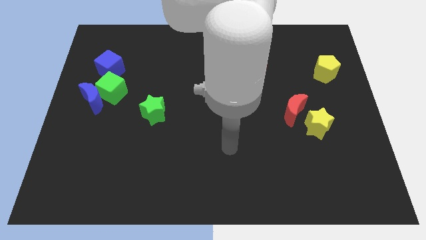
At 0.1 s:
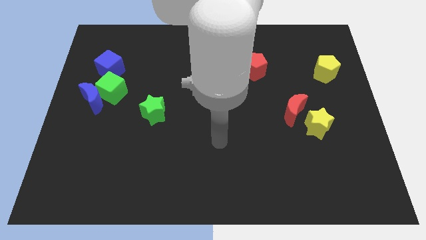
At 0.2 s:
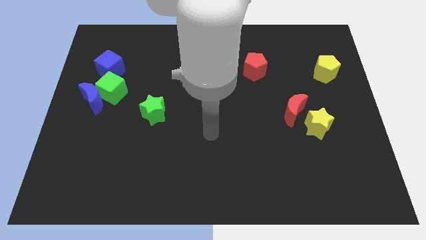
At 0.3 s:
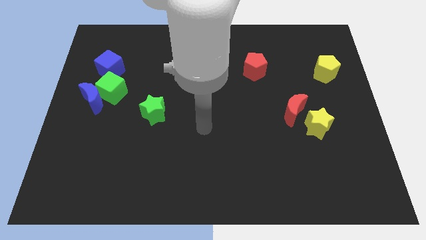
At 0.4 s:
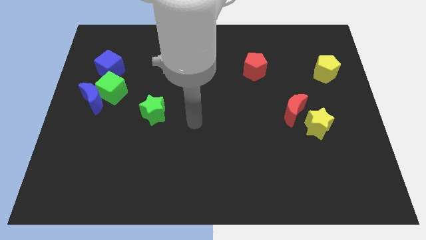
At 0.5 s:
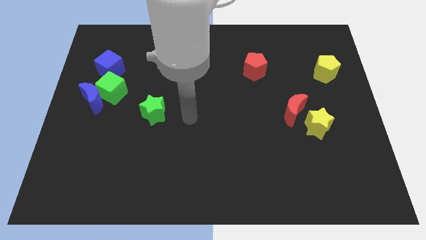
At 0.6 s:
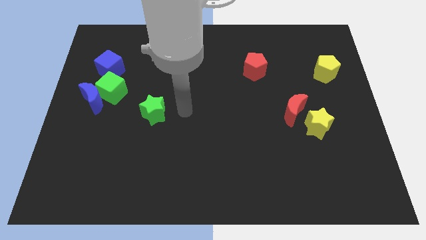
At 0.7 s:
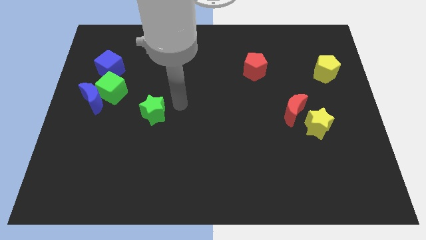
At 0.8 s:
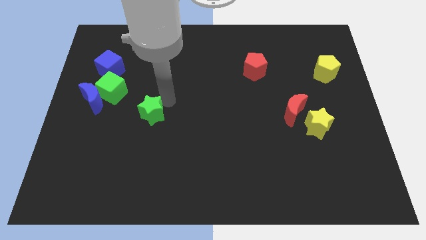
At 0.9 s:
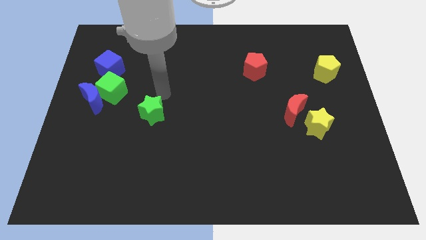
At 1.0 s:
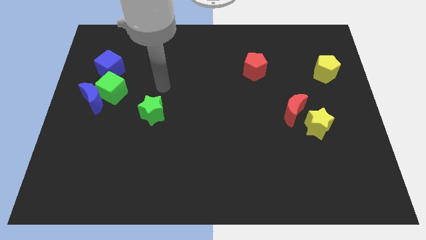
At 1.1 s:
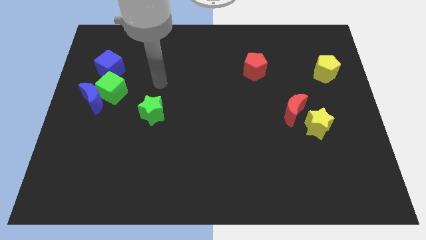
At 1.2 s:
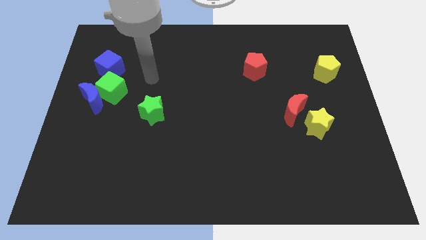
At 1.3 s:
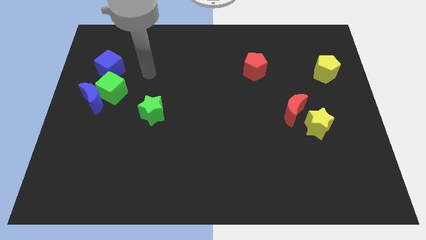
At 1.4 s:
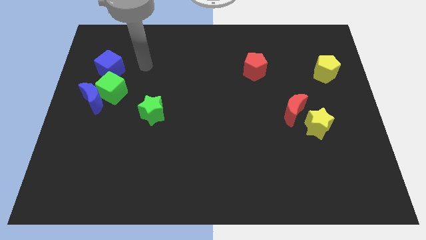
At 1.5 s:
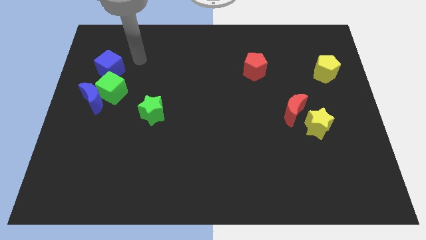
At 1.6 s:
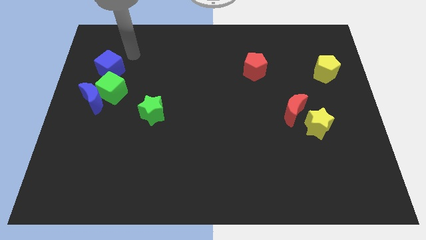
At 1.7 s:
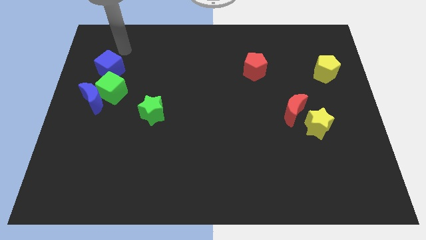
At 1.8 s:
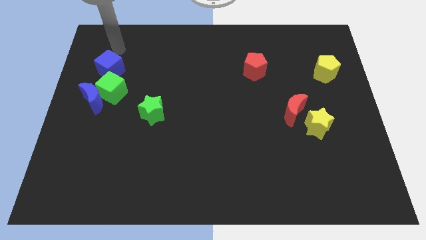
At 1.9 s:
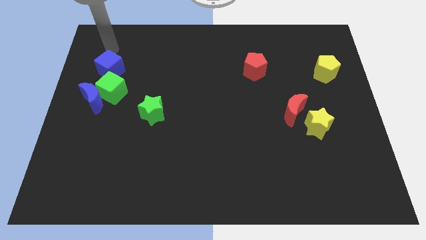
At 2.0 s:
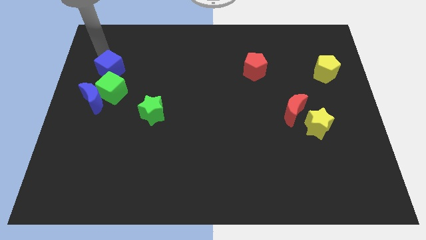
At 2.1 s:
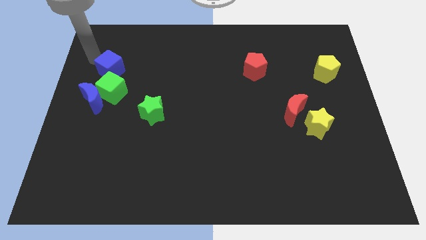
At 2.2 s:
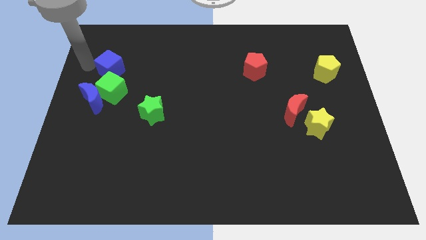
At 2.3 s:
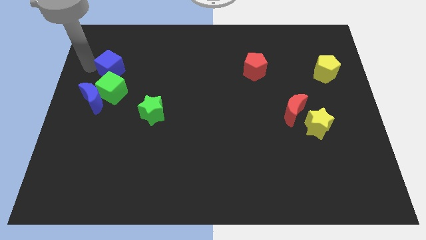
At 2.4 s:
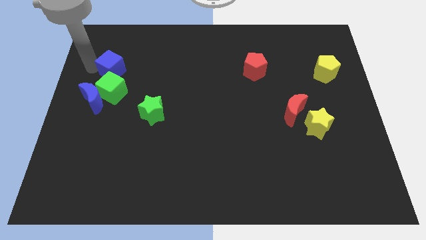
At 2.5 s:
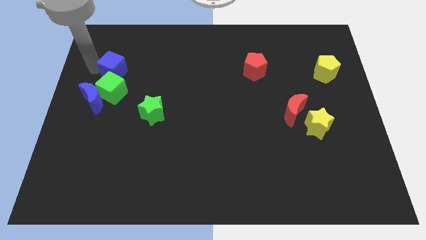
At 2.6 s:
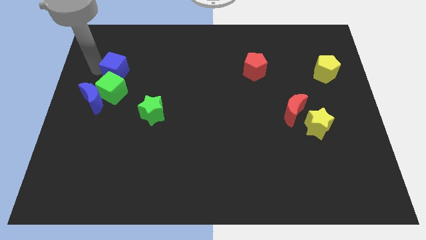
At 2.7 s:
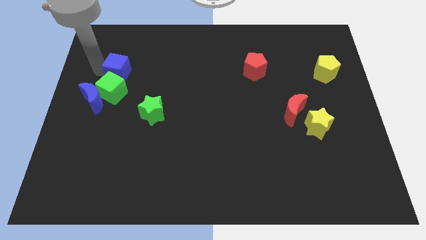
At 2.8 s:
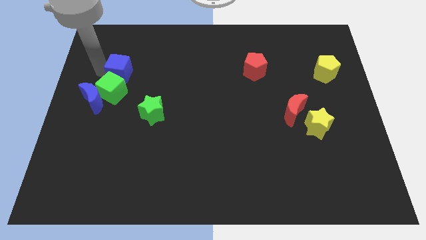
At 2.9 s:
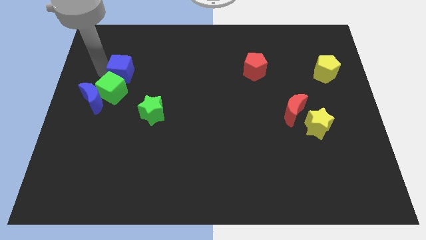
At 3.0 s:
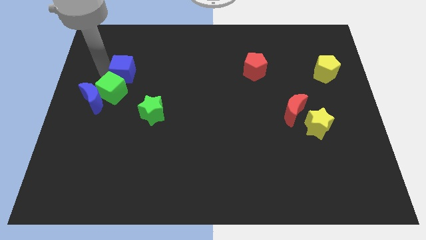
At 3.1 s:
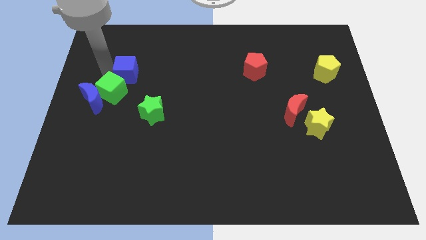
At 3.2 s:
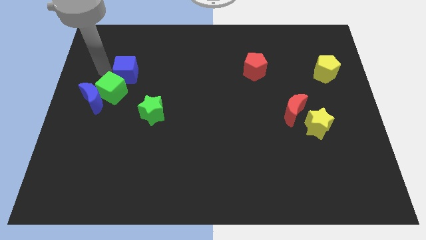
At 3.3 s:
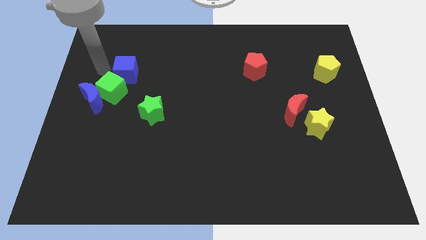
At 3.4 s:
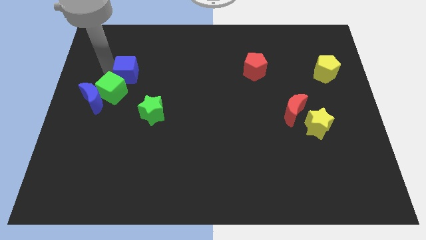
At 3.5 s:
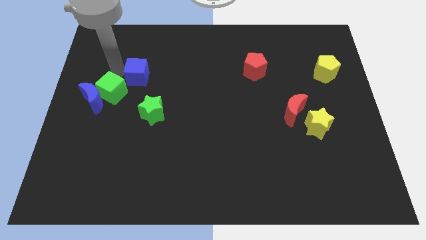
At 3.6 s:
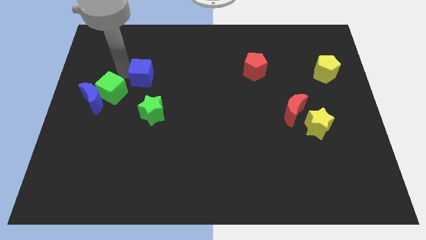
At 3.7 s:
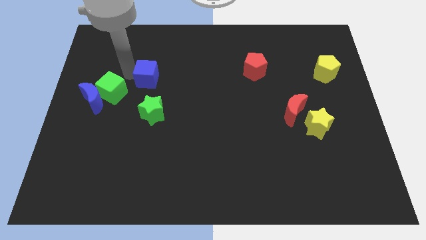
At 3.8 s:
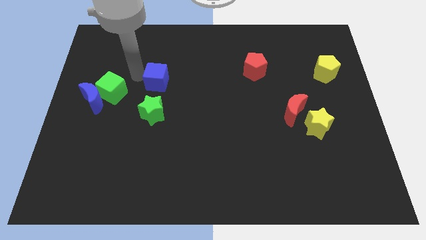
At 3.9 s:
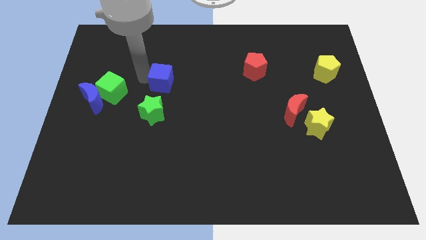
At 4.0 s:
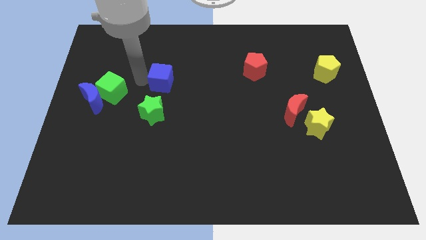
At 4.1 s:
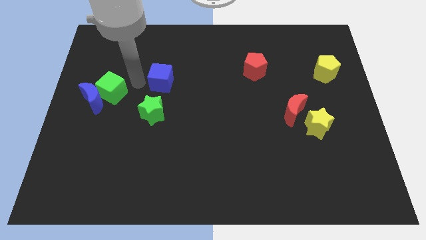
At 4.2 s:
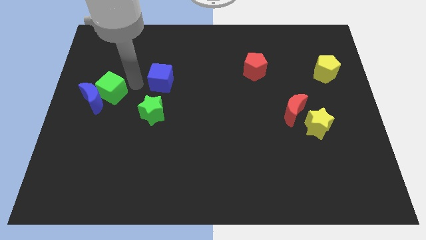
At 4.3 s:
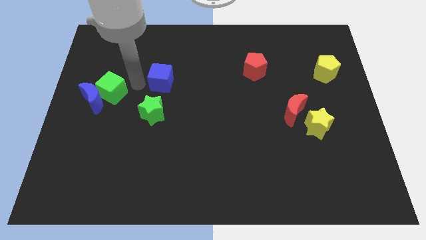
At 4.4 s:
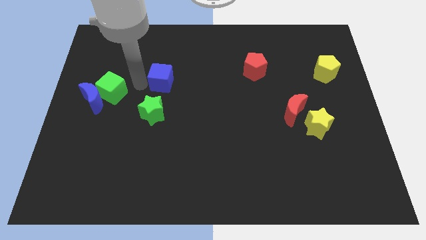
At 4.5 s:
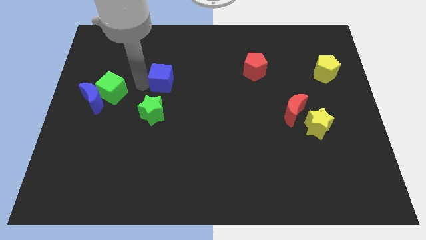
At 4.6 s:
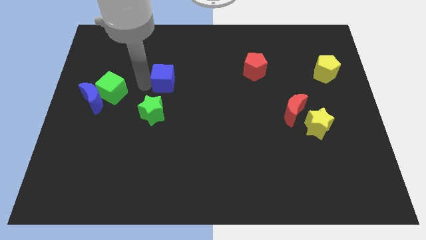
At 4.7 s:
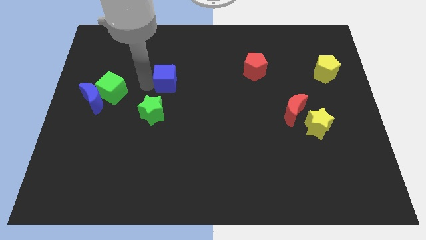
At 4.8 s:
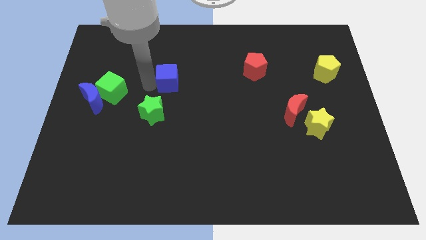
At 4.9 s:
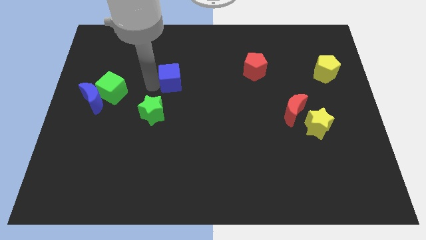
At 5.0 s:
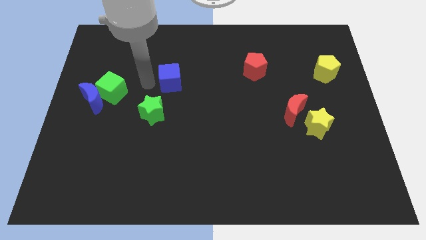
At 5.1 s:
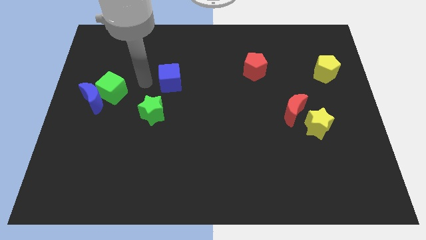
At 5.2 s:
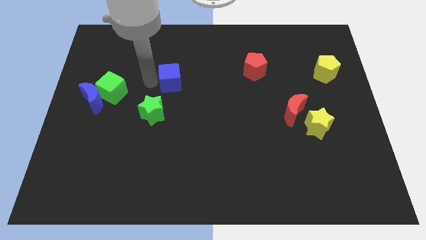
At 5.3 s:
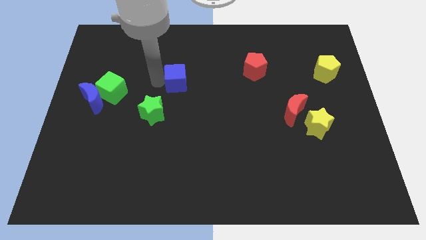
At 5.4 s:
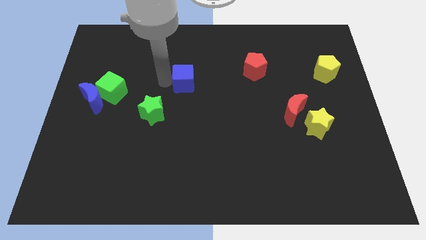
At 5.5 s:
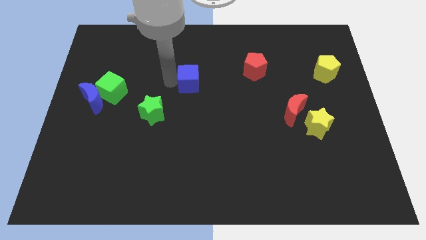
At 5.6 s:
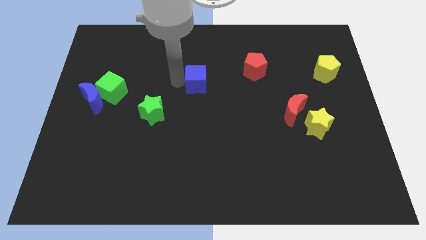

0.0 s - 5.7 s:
move the blue cube right

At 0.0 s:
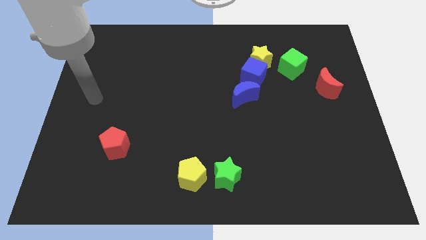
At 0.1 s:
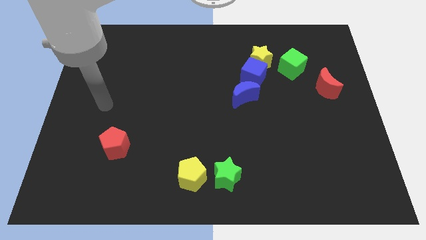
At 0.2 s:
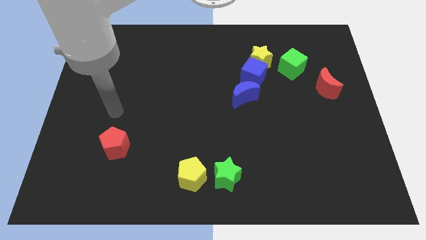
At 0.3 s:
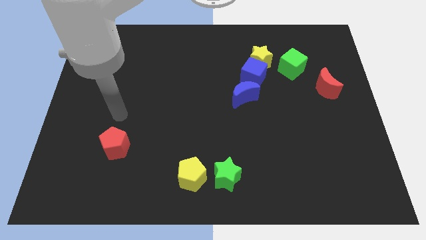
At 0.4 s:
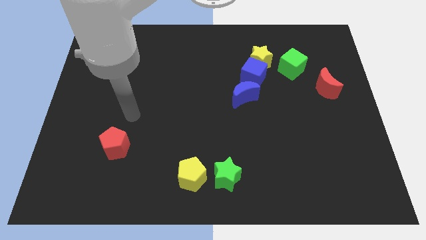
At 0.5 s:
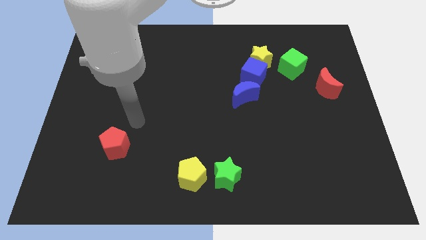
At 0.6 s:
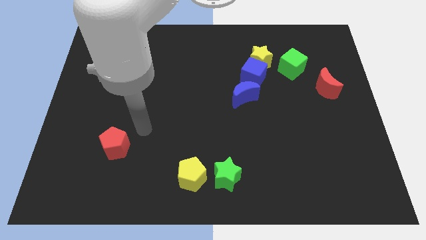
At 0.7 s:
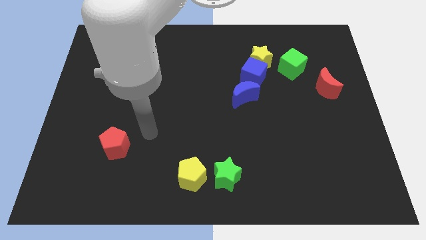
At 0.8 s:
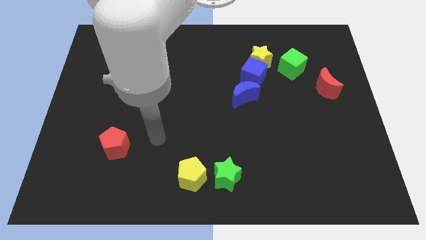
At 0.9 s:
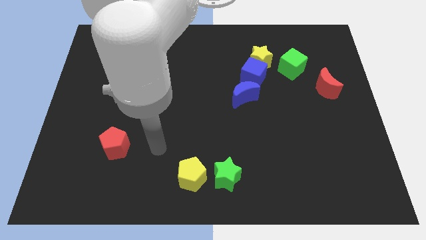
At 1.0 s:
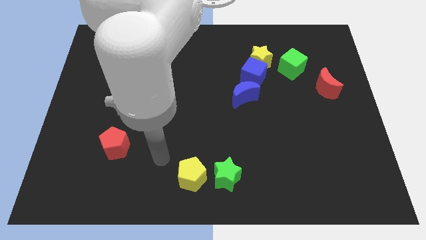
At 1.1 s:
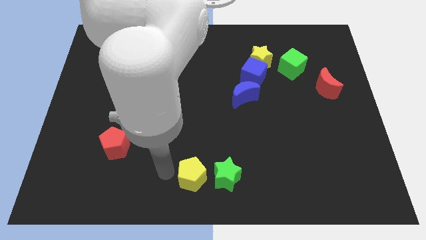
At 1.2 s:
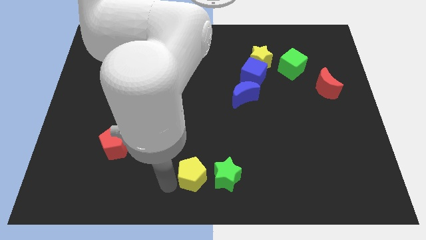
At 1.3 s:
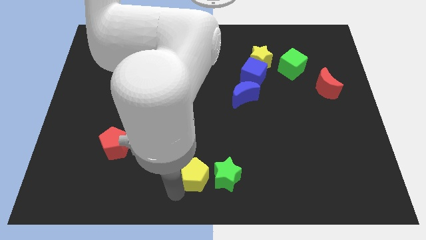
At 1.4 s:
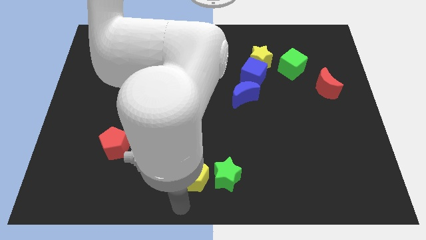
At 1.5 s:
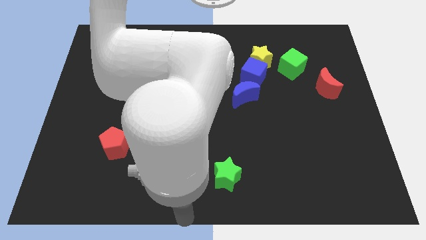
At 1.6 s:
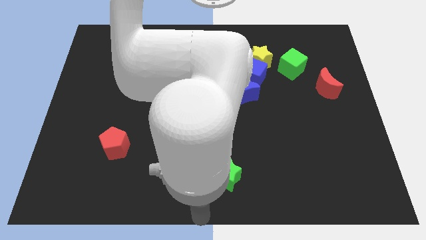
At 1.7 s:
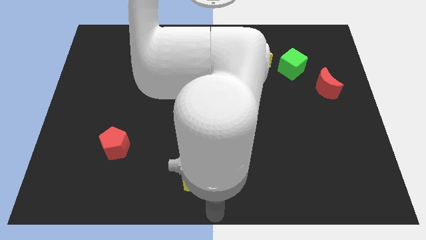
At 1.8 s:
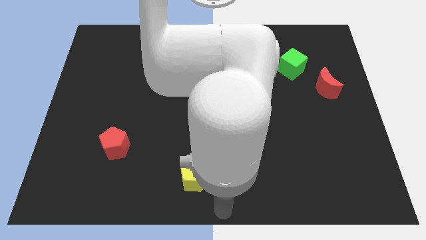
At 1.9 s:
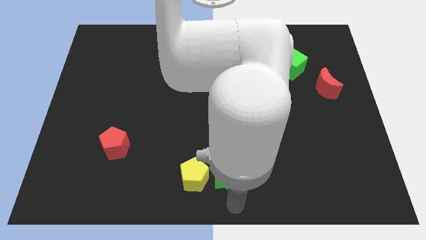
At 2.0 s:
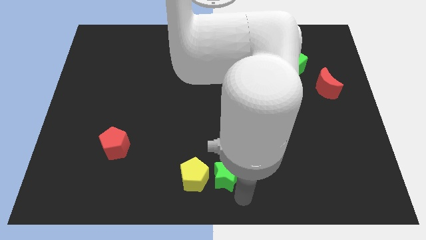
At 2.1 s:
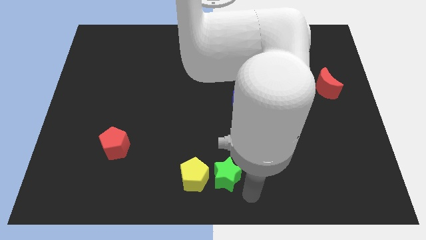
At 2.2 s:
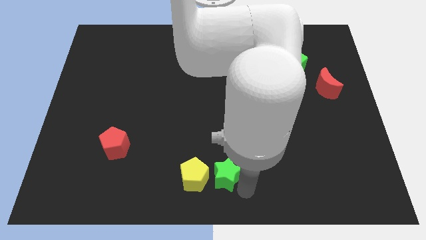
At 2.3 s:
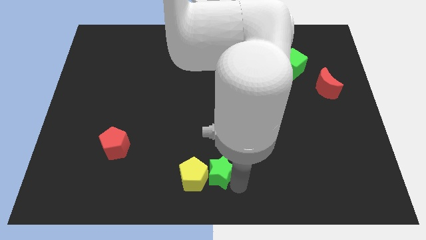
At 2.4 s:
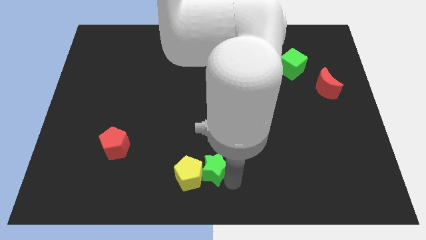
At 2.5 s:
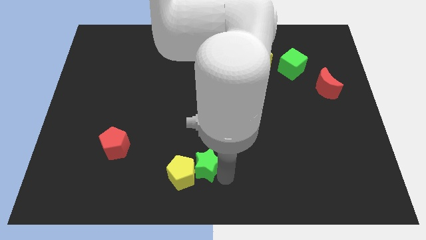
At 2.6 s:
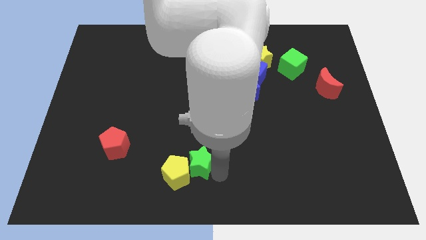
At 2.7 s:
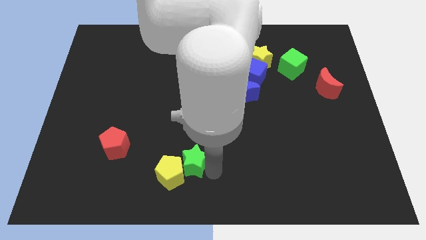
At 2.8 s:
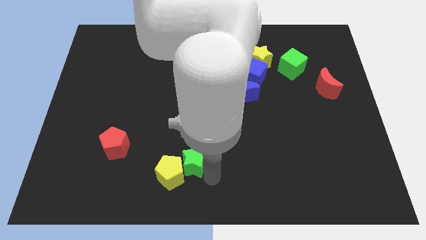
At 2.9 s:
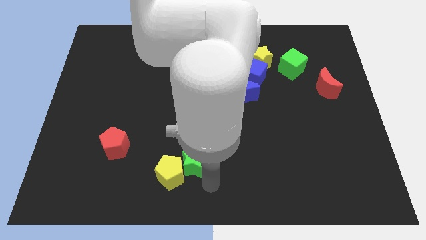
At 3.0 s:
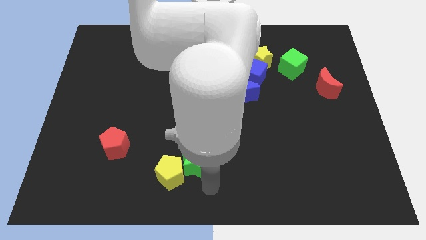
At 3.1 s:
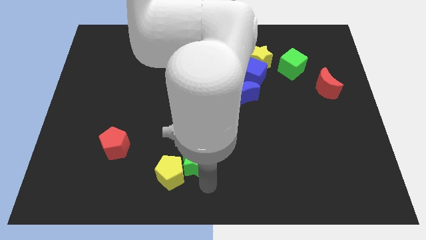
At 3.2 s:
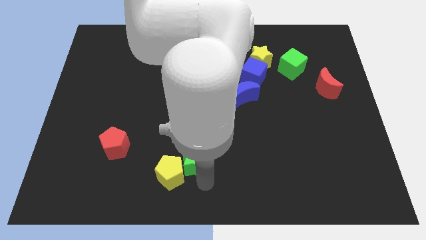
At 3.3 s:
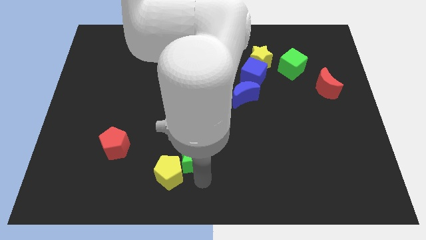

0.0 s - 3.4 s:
slightly move the green star diagonally up and to the left
